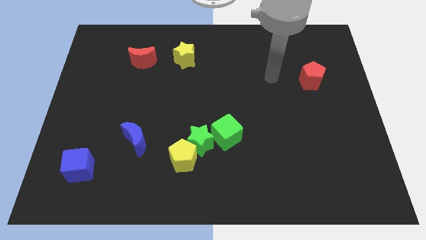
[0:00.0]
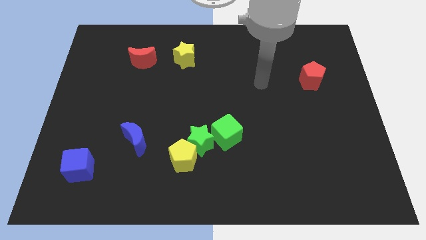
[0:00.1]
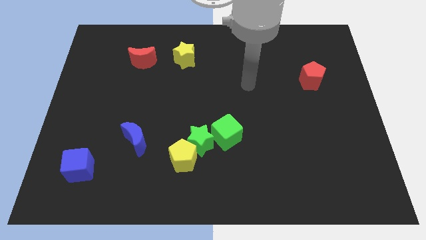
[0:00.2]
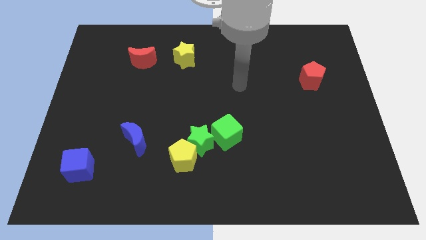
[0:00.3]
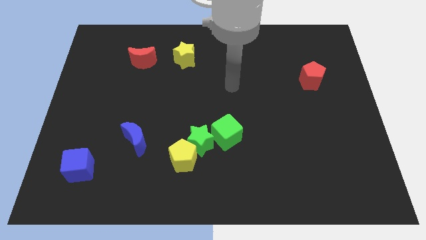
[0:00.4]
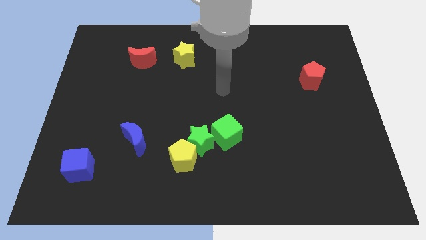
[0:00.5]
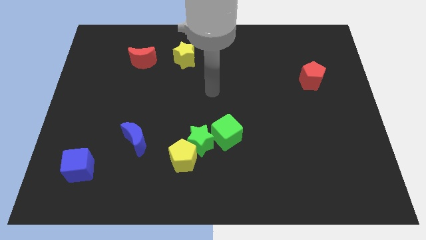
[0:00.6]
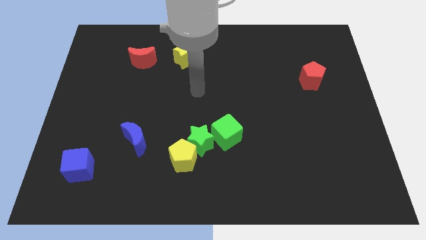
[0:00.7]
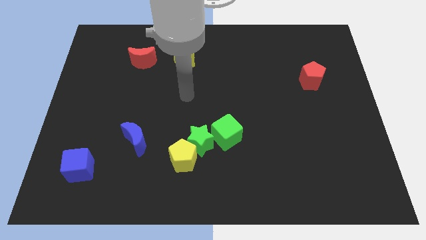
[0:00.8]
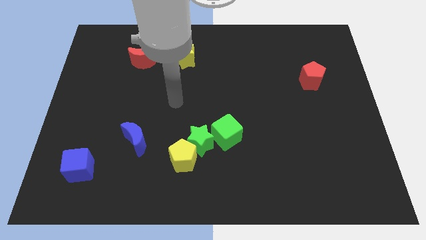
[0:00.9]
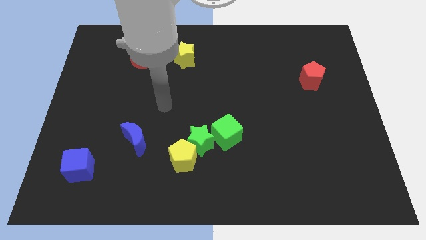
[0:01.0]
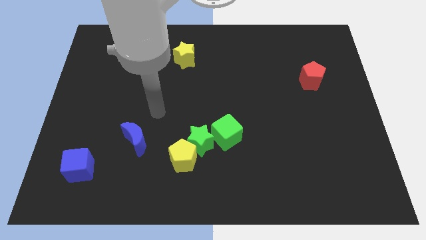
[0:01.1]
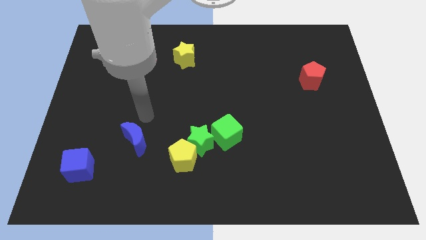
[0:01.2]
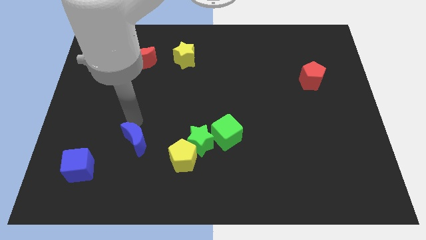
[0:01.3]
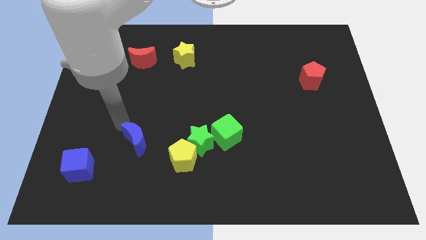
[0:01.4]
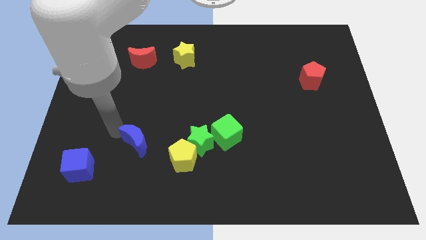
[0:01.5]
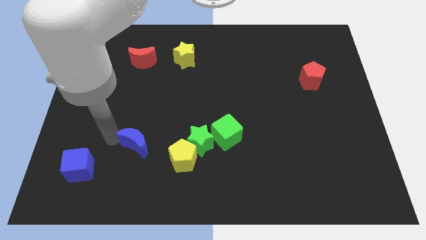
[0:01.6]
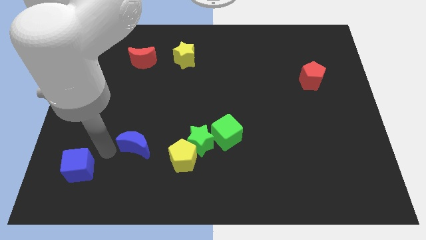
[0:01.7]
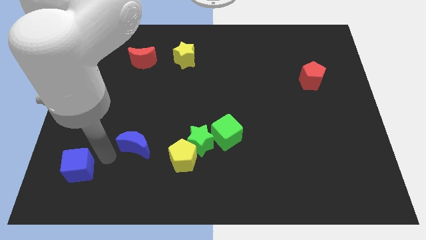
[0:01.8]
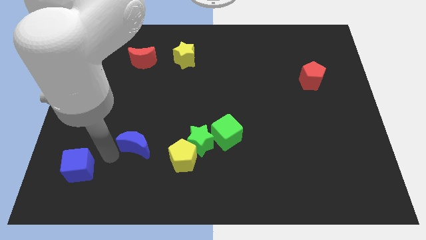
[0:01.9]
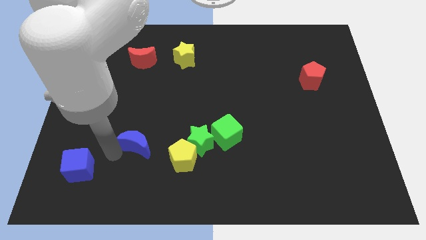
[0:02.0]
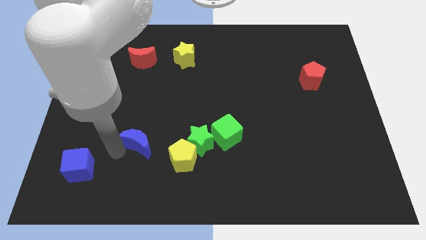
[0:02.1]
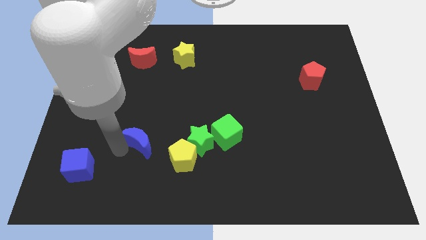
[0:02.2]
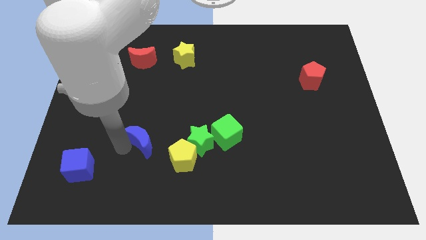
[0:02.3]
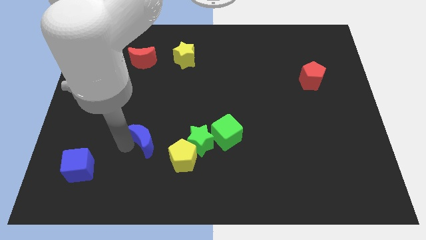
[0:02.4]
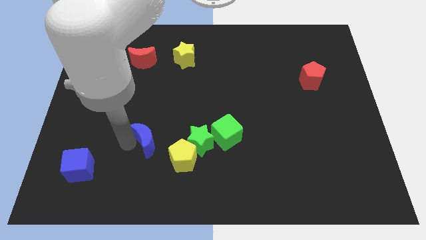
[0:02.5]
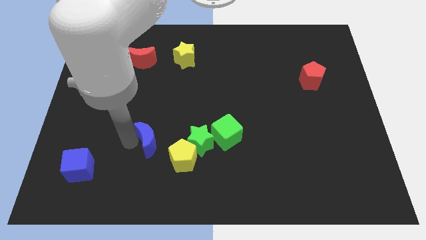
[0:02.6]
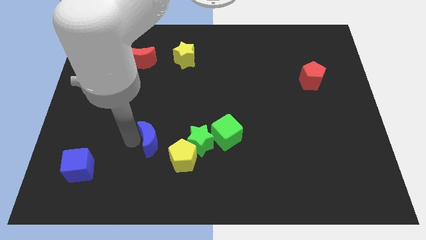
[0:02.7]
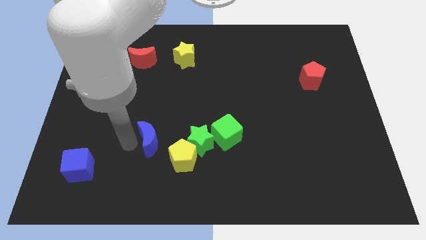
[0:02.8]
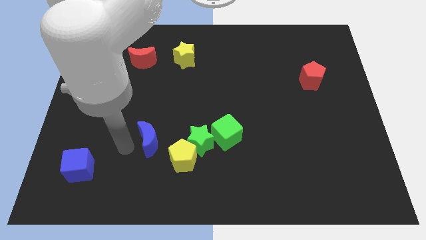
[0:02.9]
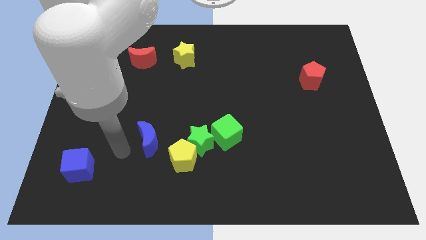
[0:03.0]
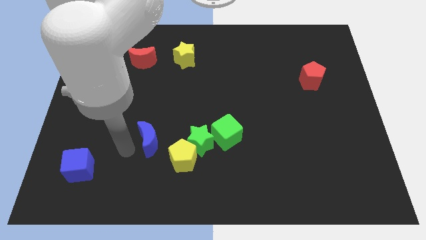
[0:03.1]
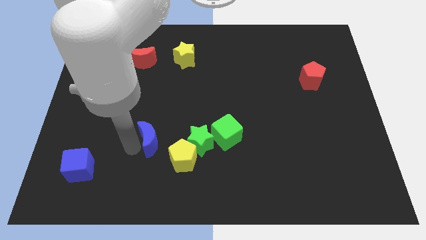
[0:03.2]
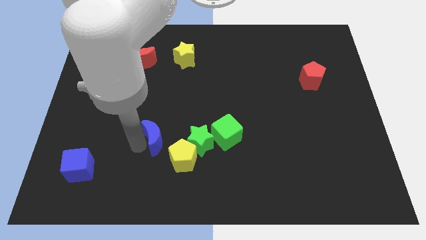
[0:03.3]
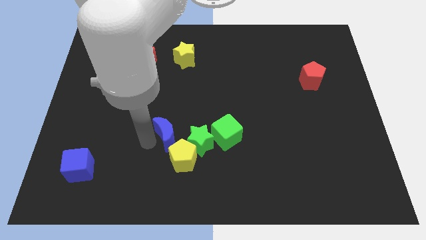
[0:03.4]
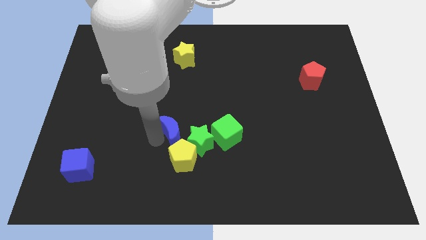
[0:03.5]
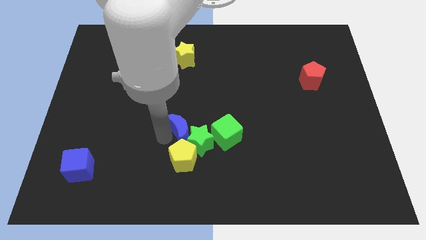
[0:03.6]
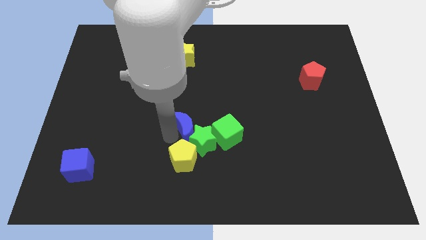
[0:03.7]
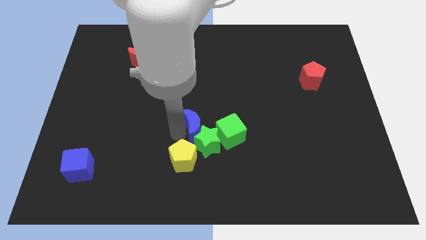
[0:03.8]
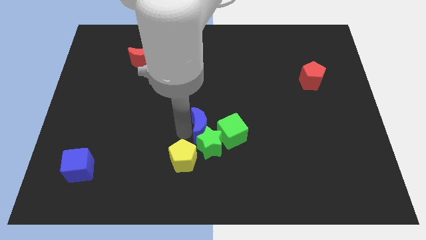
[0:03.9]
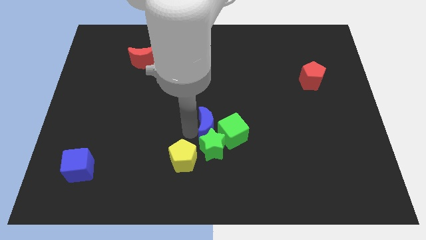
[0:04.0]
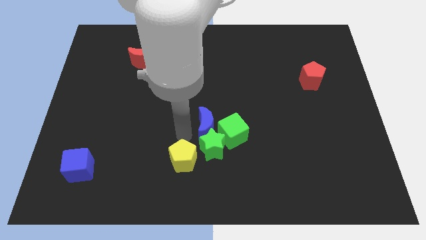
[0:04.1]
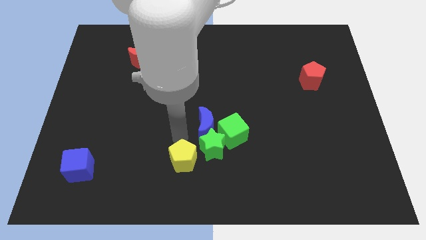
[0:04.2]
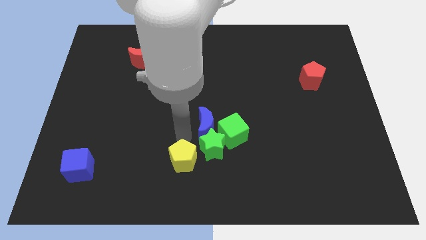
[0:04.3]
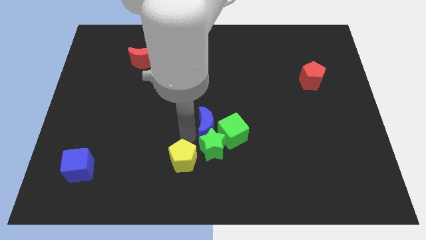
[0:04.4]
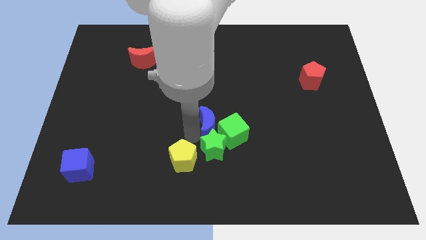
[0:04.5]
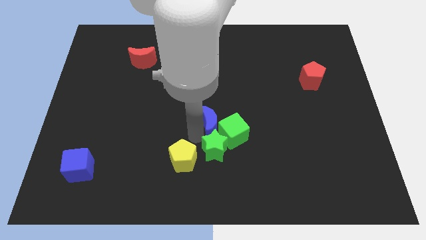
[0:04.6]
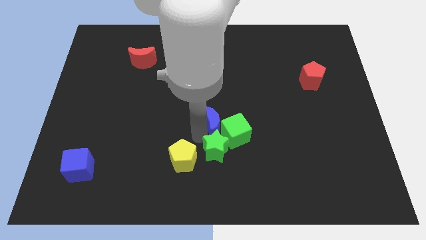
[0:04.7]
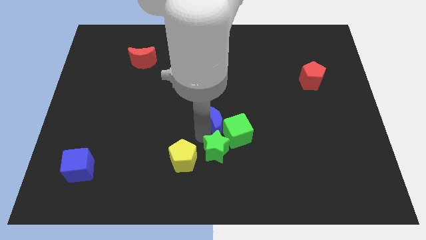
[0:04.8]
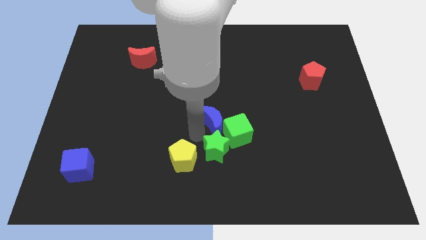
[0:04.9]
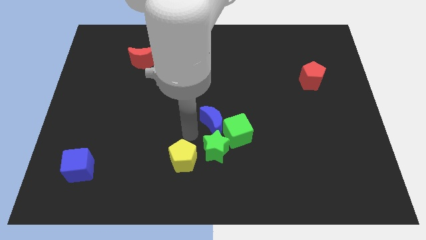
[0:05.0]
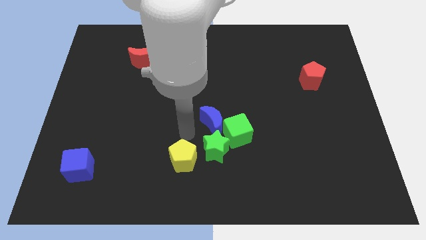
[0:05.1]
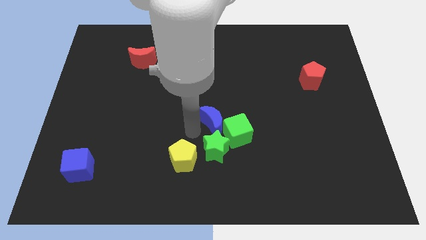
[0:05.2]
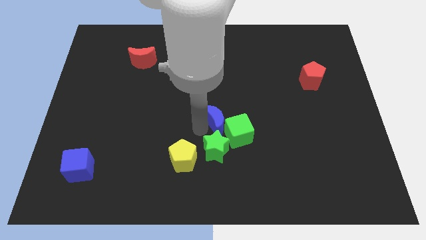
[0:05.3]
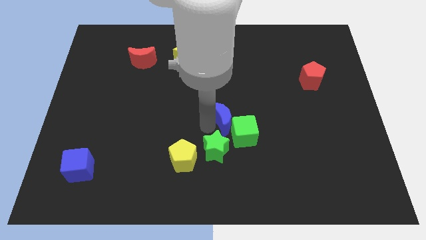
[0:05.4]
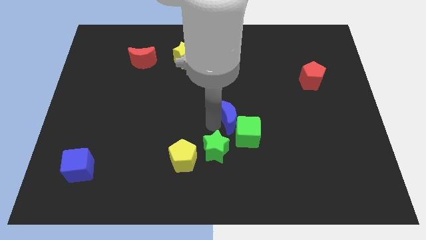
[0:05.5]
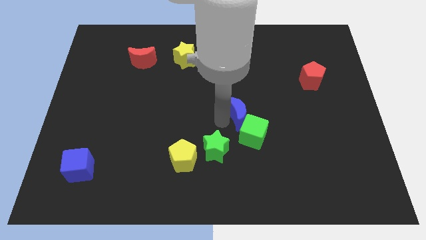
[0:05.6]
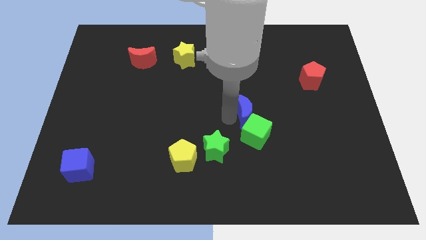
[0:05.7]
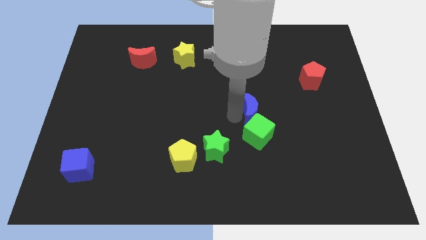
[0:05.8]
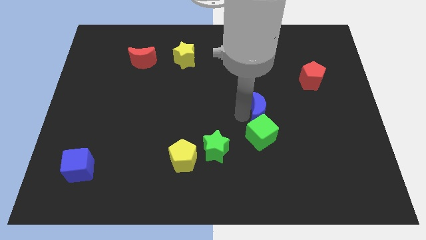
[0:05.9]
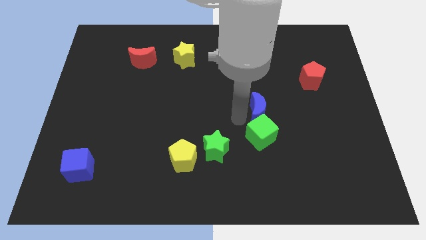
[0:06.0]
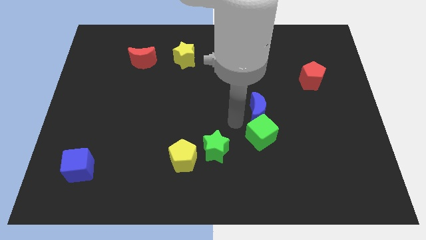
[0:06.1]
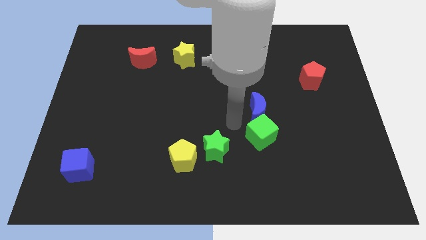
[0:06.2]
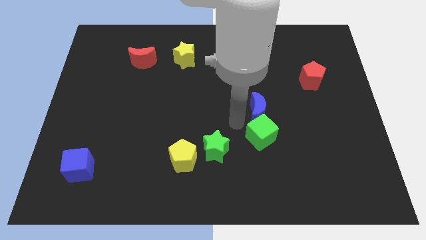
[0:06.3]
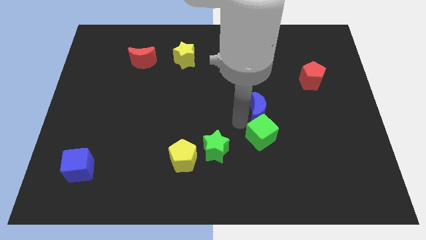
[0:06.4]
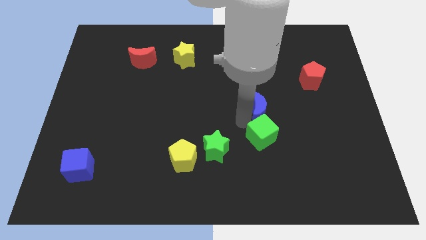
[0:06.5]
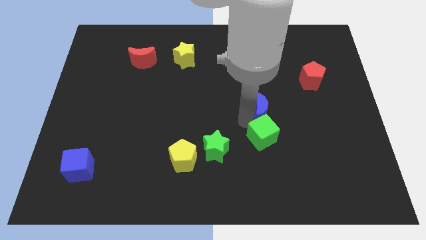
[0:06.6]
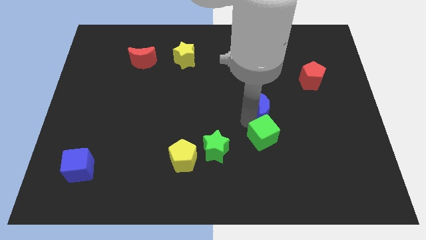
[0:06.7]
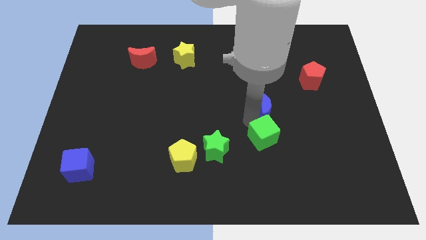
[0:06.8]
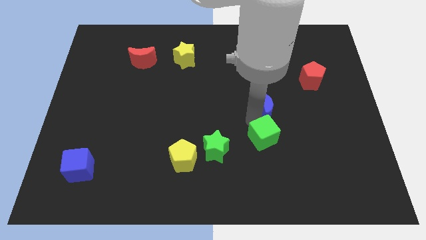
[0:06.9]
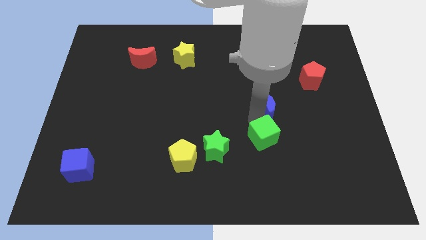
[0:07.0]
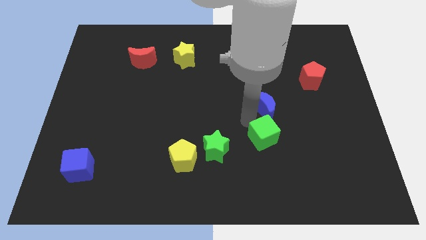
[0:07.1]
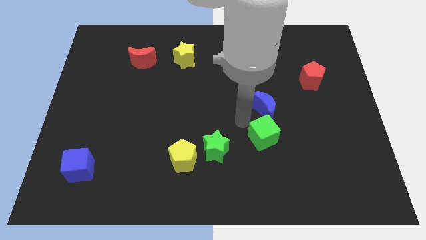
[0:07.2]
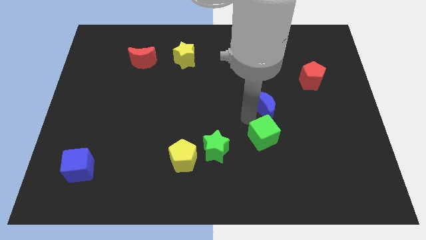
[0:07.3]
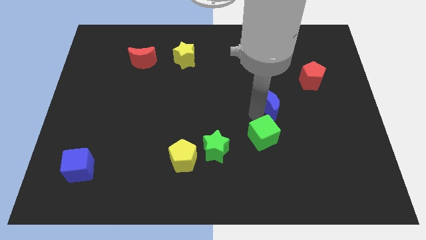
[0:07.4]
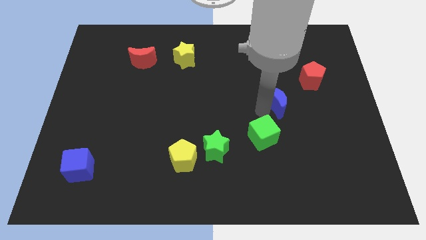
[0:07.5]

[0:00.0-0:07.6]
move the blue moon to the bottom left side of the red pentagon
